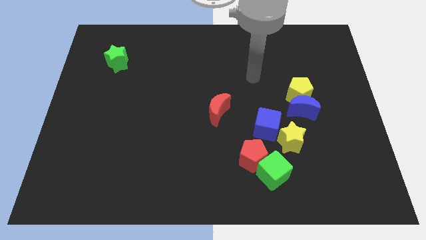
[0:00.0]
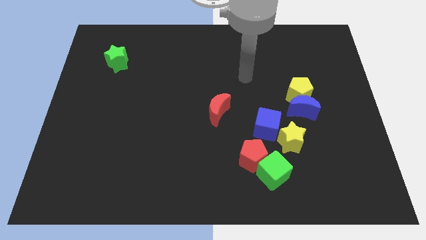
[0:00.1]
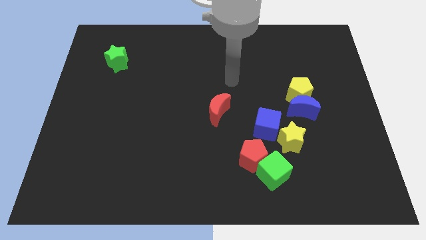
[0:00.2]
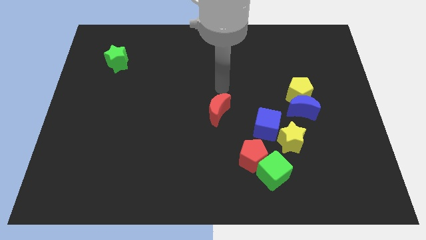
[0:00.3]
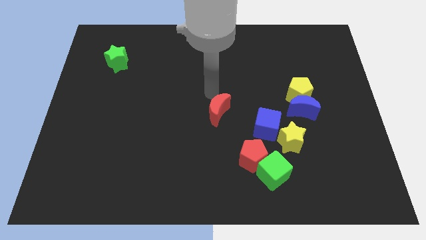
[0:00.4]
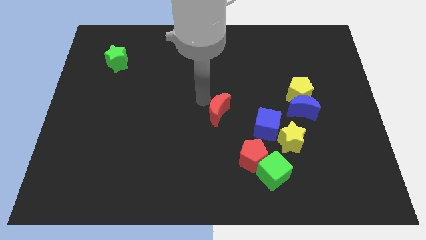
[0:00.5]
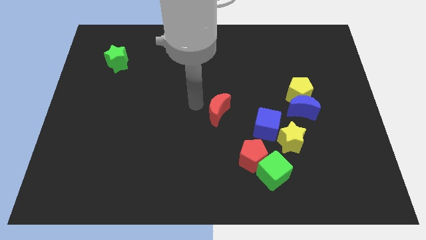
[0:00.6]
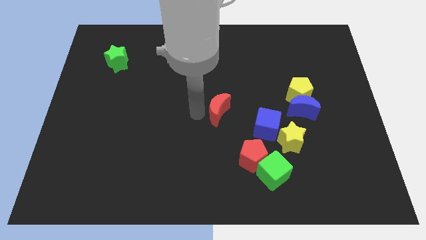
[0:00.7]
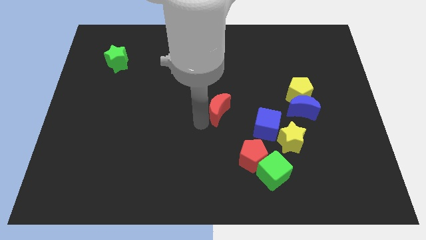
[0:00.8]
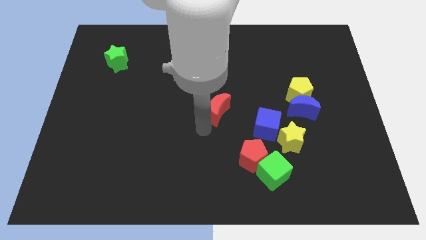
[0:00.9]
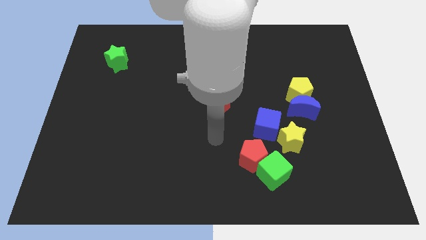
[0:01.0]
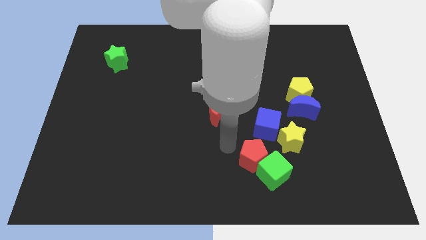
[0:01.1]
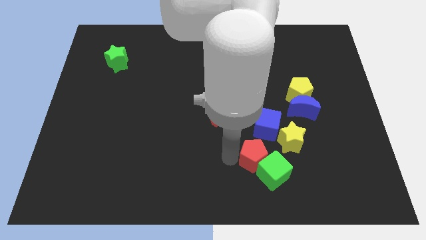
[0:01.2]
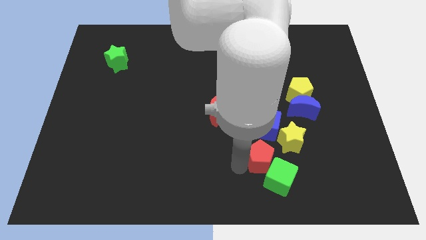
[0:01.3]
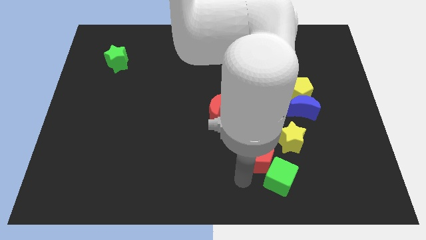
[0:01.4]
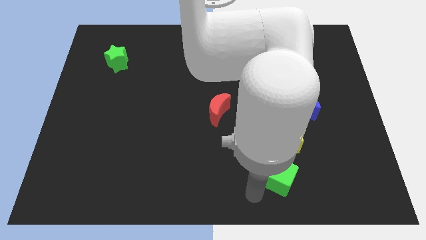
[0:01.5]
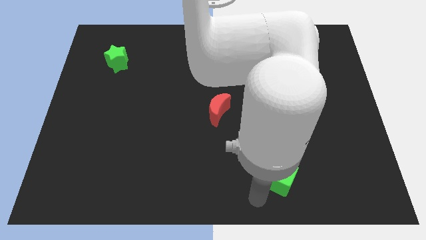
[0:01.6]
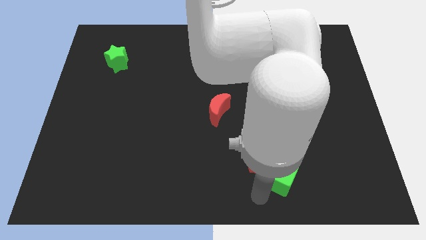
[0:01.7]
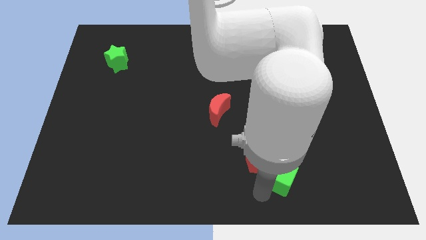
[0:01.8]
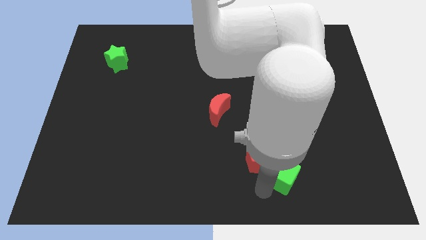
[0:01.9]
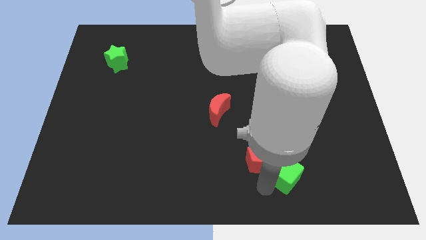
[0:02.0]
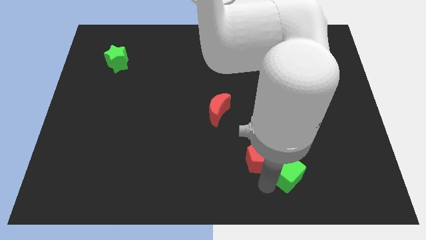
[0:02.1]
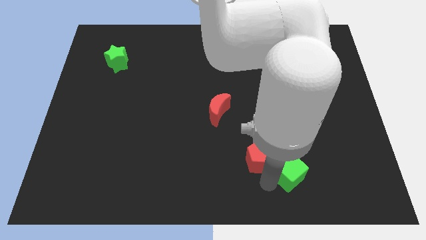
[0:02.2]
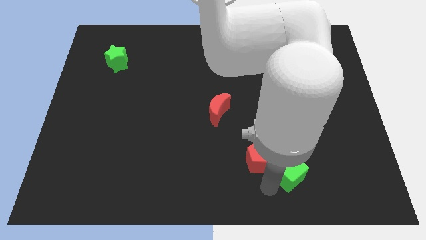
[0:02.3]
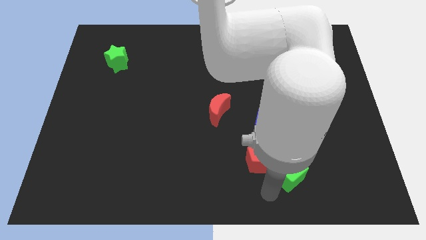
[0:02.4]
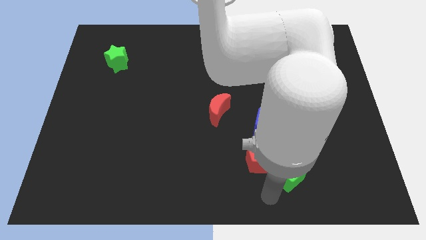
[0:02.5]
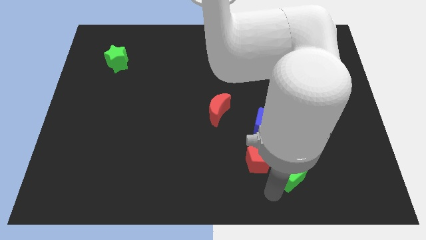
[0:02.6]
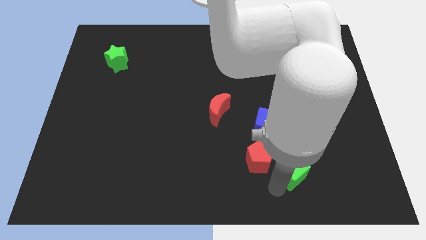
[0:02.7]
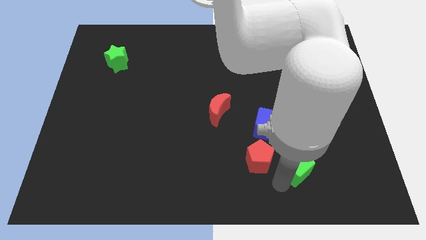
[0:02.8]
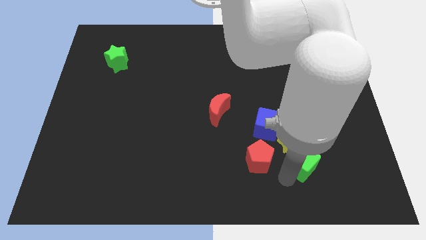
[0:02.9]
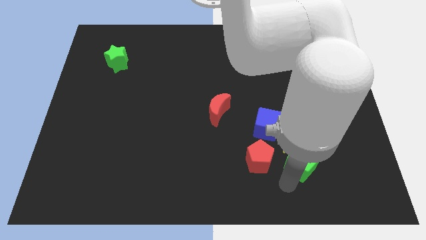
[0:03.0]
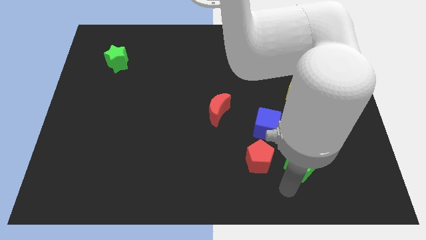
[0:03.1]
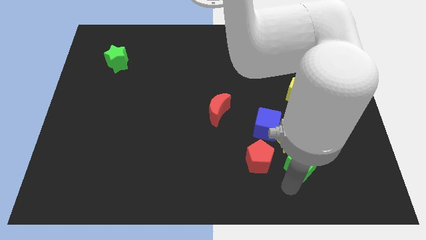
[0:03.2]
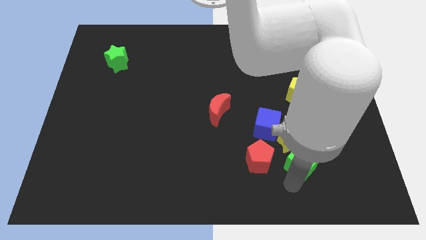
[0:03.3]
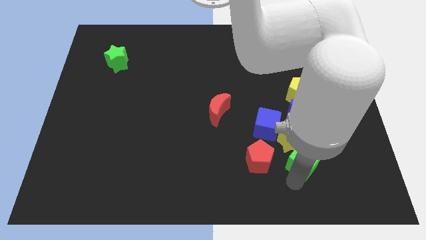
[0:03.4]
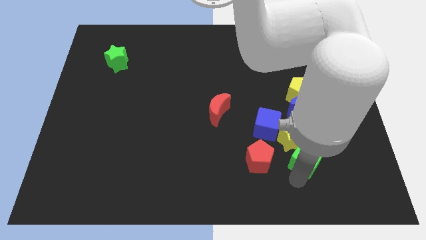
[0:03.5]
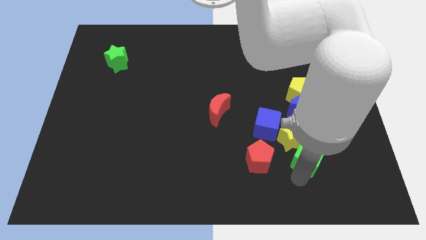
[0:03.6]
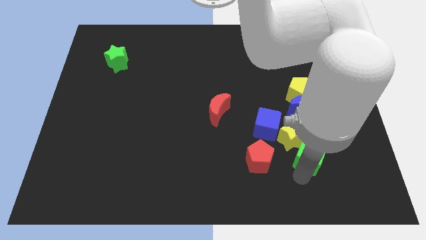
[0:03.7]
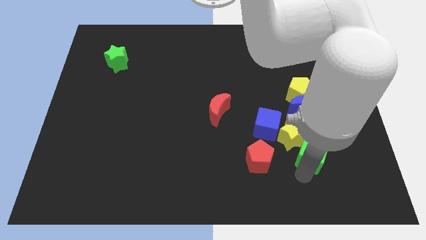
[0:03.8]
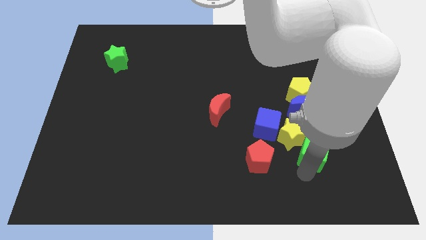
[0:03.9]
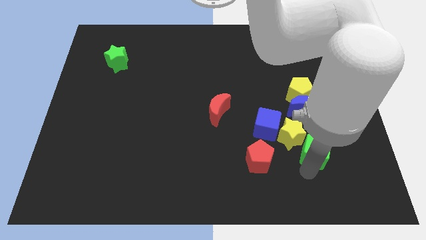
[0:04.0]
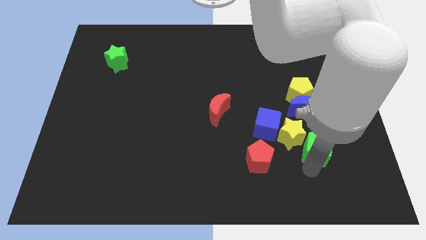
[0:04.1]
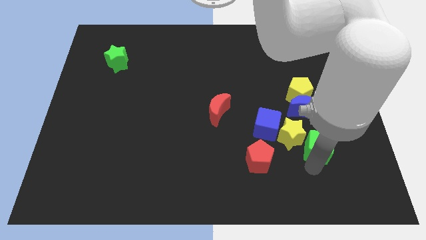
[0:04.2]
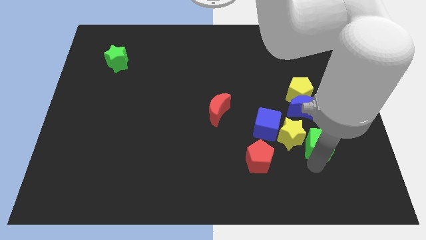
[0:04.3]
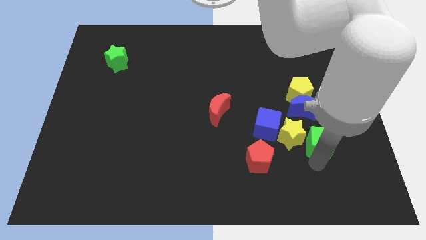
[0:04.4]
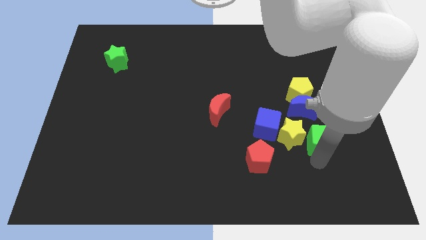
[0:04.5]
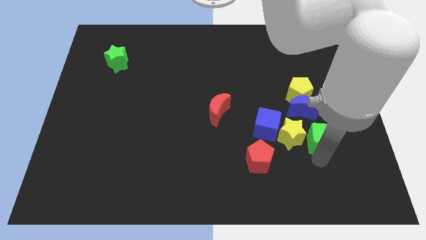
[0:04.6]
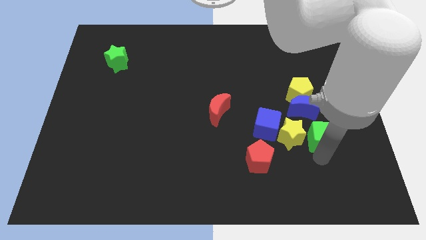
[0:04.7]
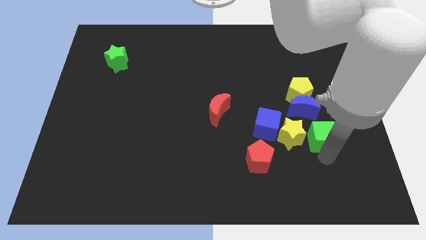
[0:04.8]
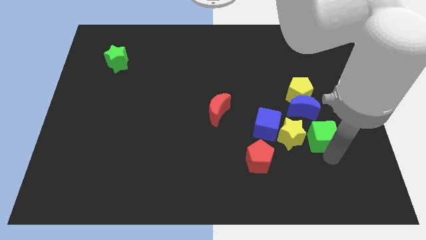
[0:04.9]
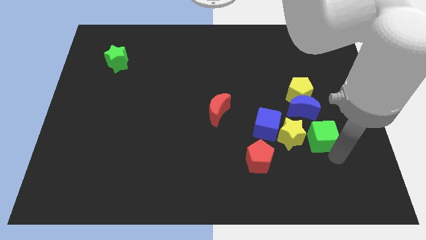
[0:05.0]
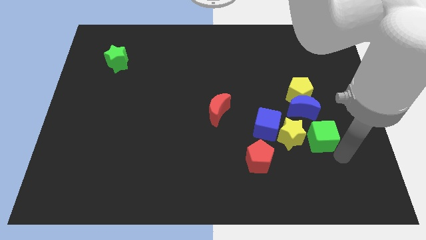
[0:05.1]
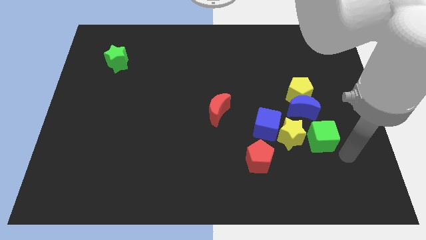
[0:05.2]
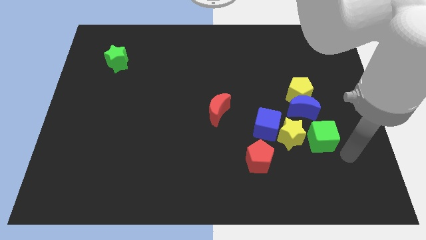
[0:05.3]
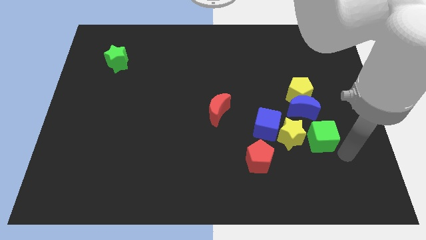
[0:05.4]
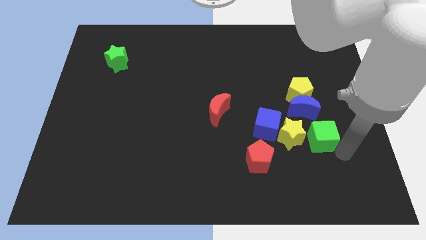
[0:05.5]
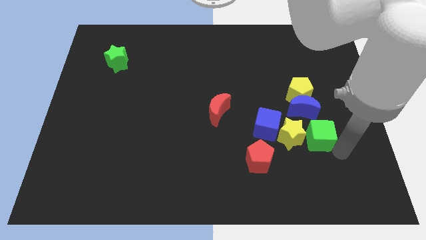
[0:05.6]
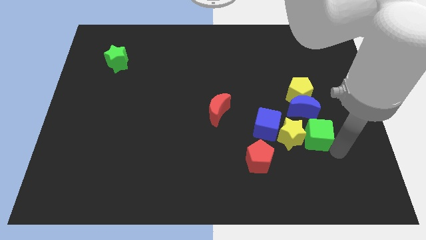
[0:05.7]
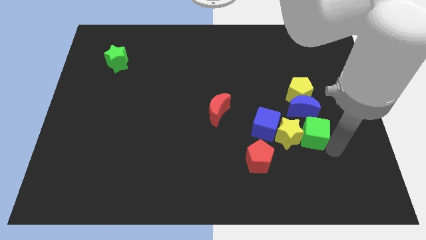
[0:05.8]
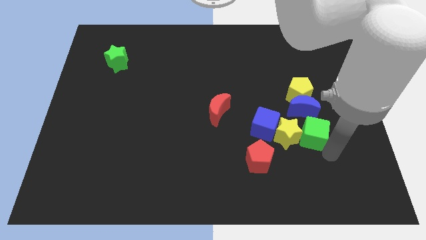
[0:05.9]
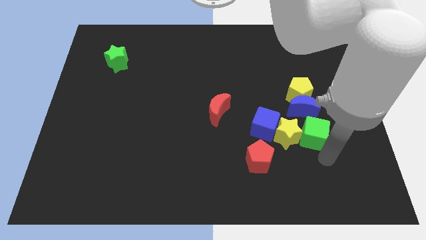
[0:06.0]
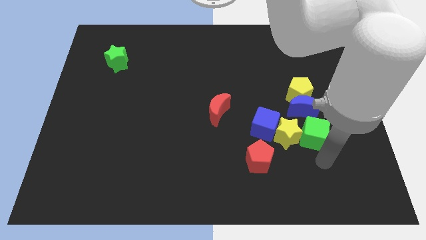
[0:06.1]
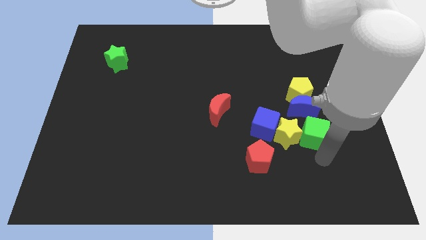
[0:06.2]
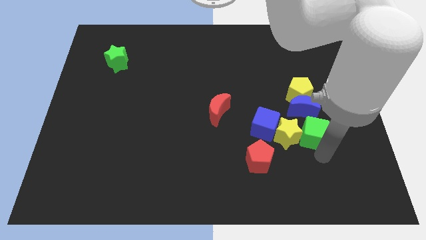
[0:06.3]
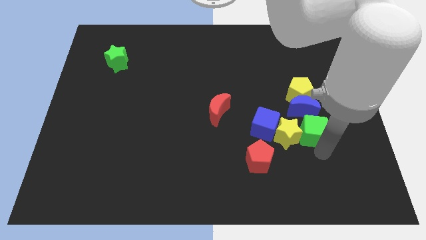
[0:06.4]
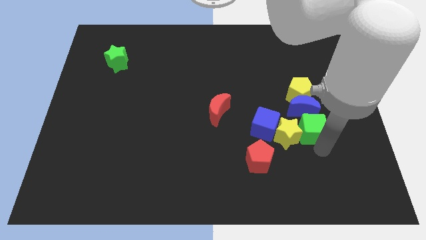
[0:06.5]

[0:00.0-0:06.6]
slide the green cube next to the blue moon
